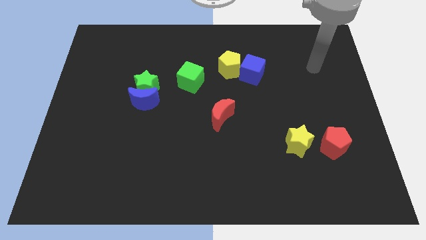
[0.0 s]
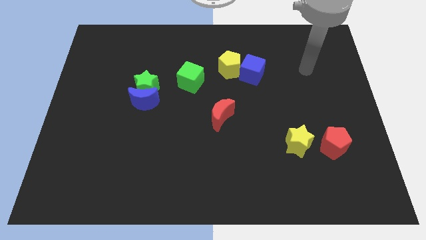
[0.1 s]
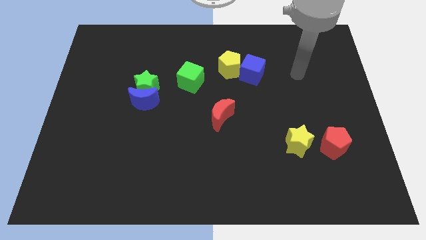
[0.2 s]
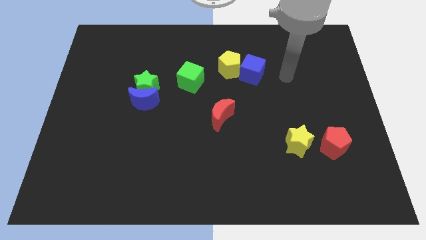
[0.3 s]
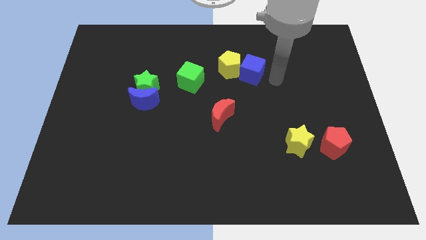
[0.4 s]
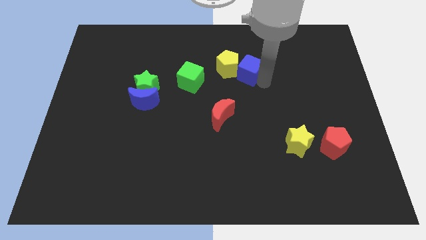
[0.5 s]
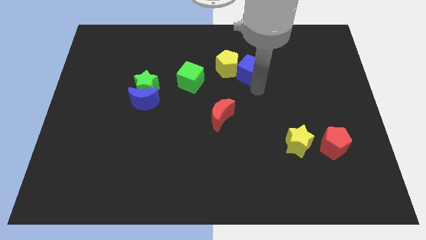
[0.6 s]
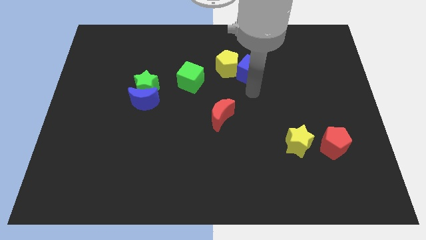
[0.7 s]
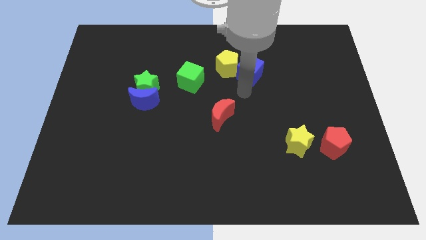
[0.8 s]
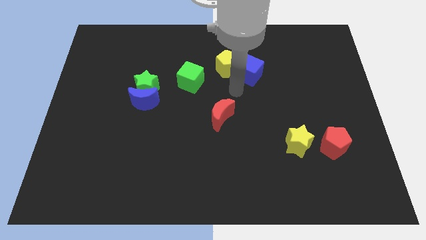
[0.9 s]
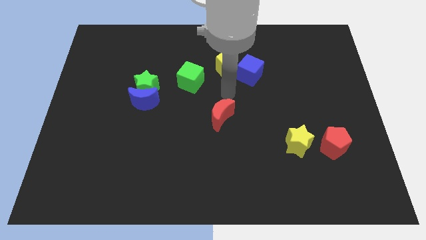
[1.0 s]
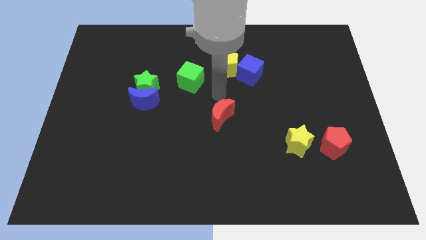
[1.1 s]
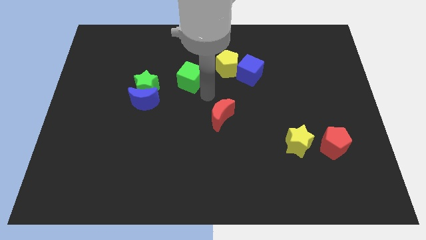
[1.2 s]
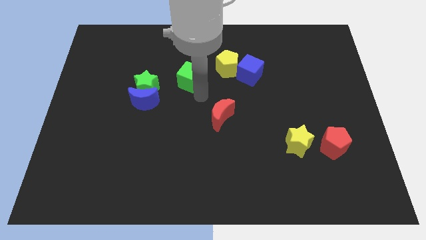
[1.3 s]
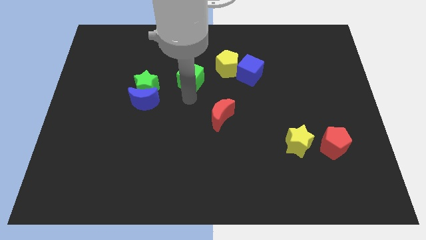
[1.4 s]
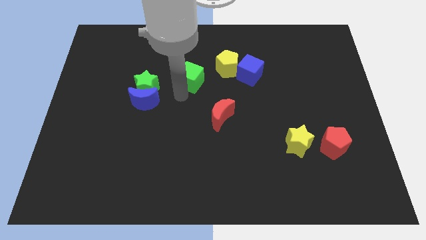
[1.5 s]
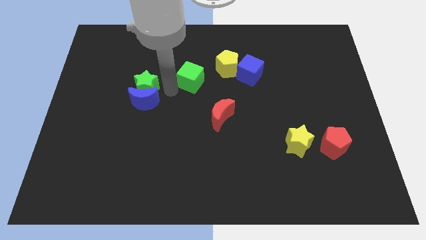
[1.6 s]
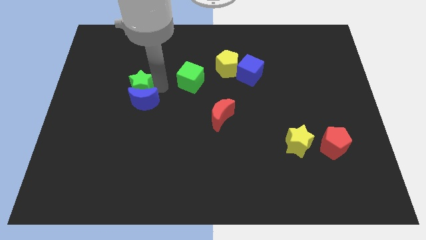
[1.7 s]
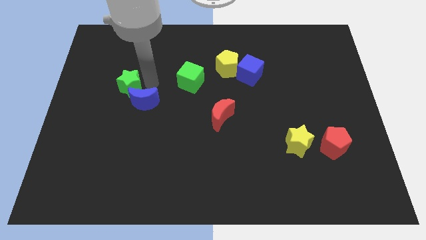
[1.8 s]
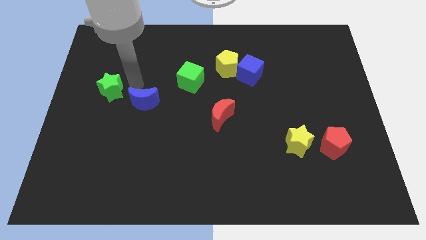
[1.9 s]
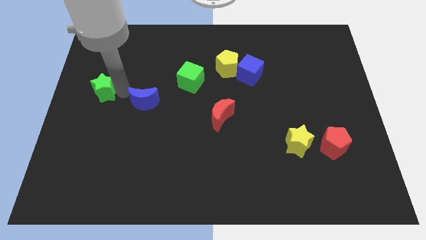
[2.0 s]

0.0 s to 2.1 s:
pull the blue moon apart from the green star

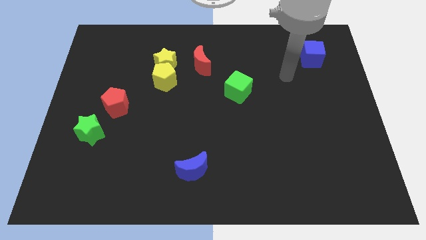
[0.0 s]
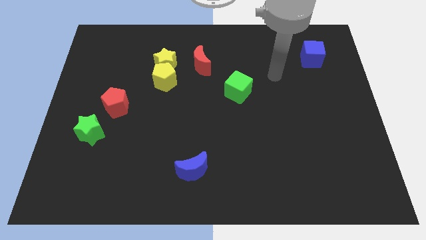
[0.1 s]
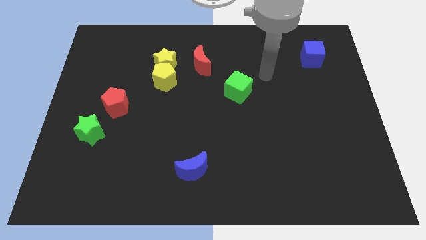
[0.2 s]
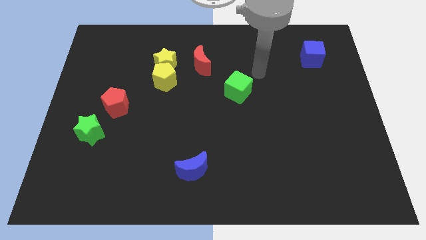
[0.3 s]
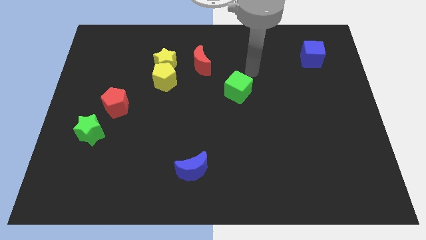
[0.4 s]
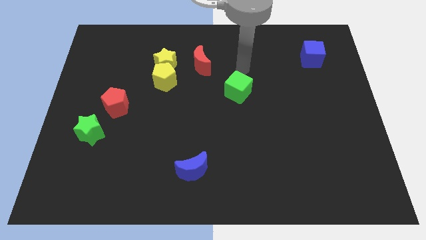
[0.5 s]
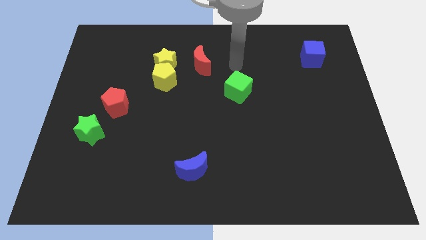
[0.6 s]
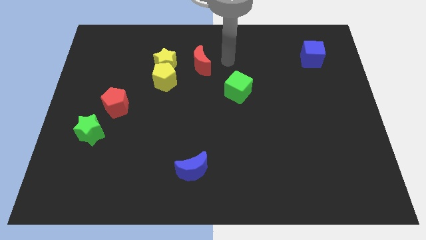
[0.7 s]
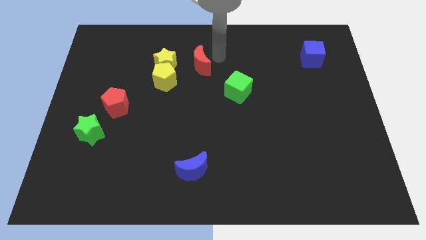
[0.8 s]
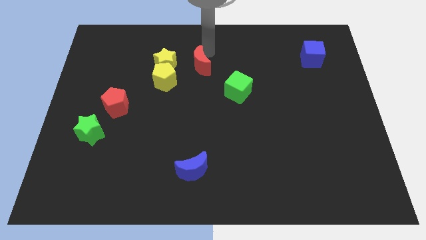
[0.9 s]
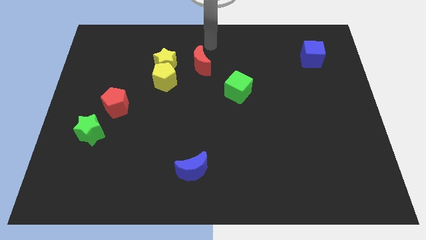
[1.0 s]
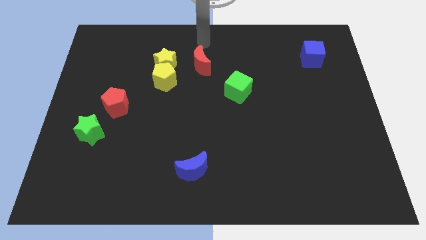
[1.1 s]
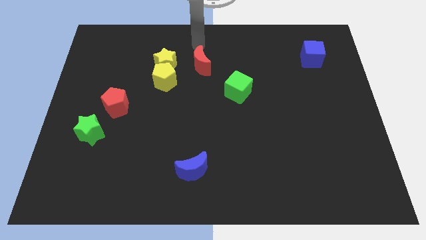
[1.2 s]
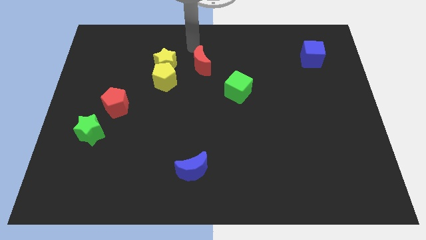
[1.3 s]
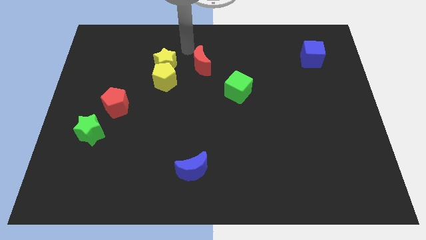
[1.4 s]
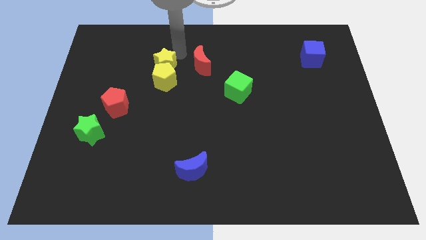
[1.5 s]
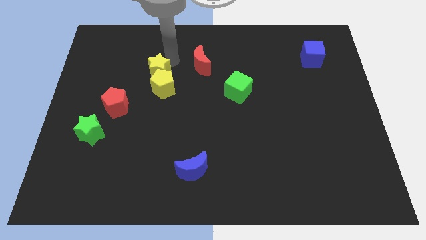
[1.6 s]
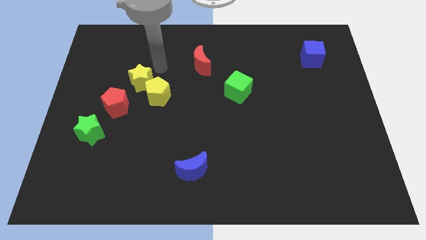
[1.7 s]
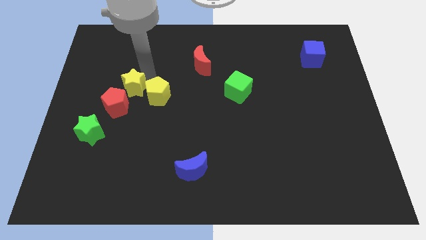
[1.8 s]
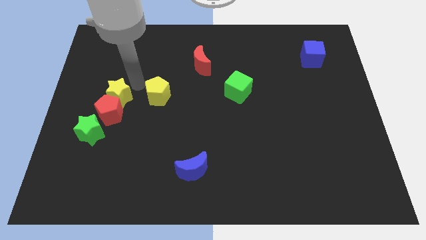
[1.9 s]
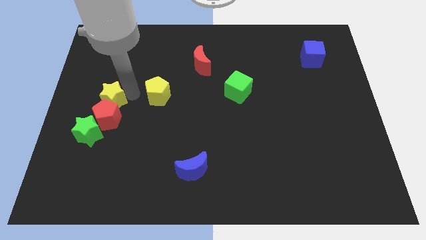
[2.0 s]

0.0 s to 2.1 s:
move the yellow pentagon away from the yellow star

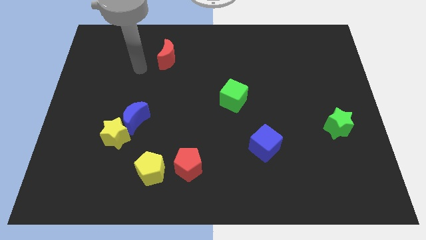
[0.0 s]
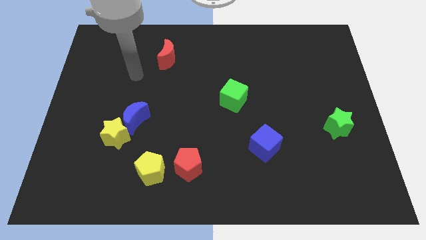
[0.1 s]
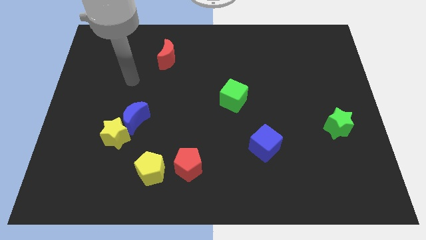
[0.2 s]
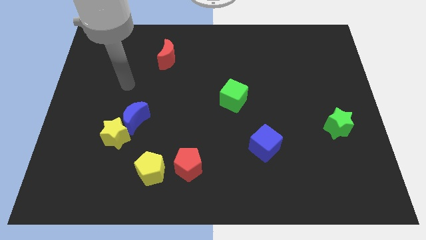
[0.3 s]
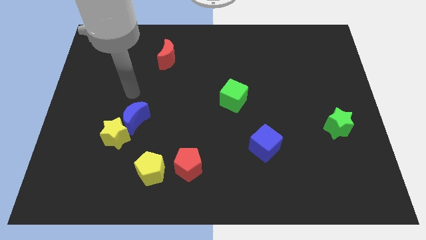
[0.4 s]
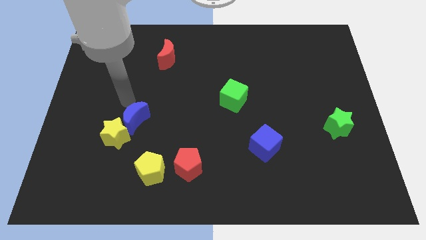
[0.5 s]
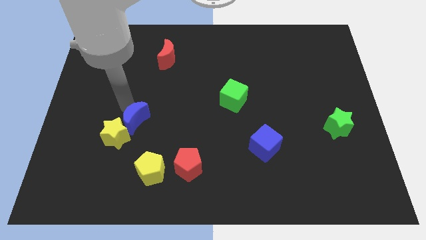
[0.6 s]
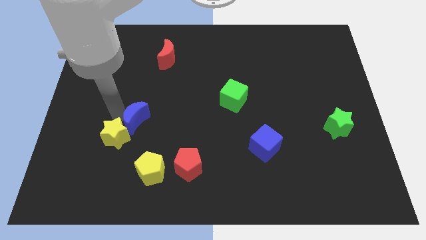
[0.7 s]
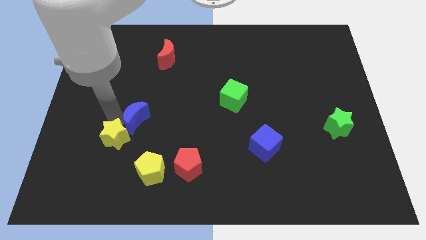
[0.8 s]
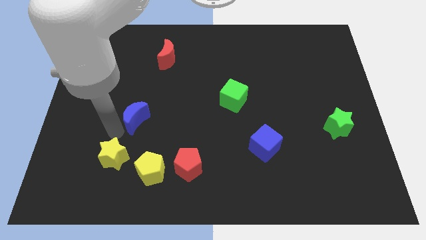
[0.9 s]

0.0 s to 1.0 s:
separate the blue moon from the yellow star

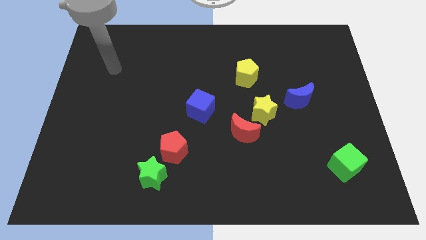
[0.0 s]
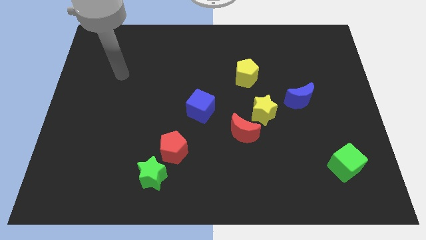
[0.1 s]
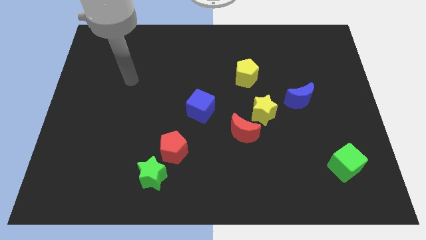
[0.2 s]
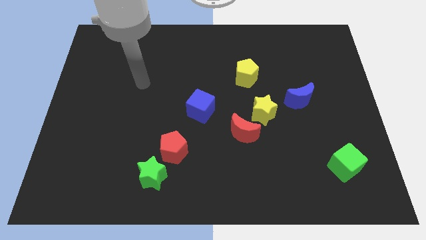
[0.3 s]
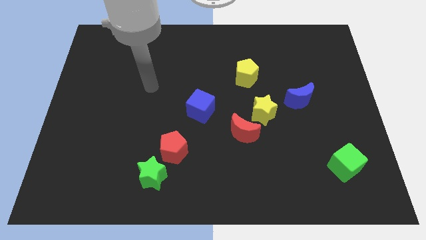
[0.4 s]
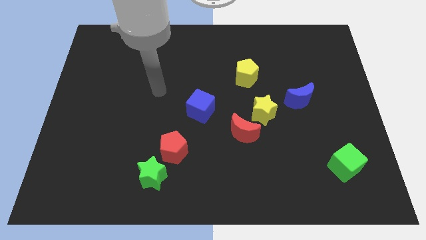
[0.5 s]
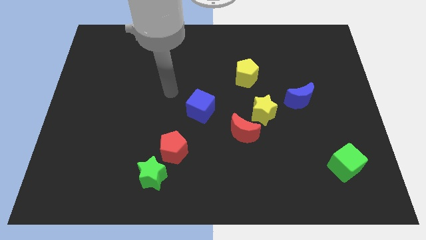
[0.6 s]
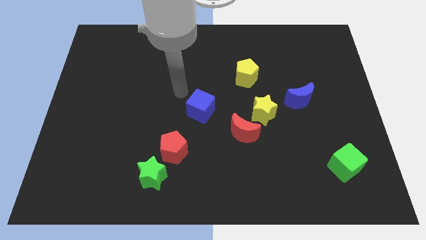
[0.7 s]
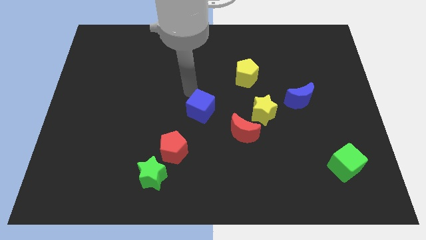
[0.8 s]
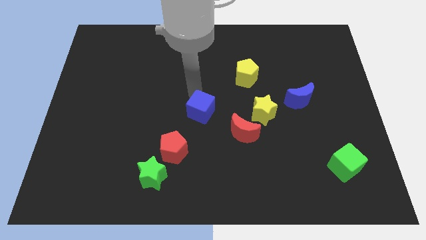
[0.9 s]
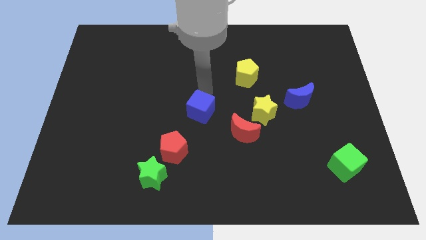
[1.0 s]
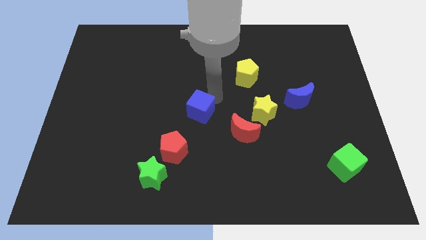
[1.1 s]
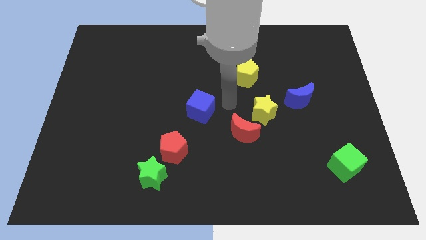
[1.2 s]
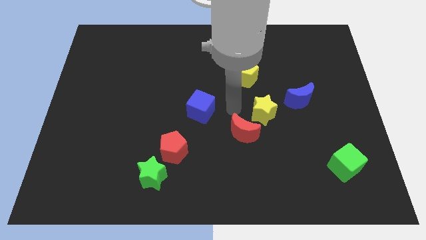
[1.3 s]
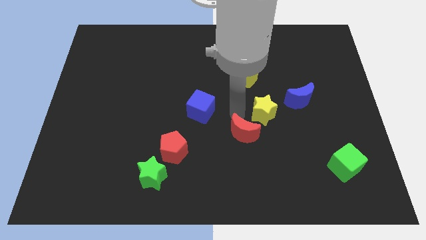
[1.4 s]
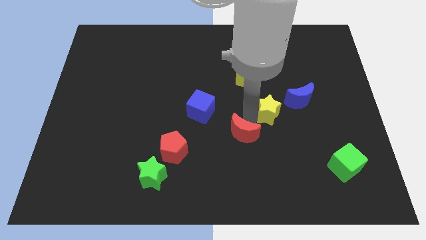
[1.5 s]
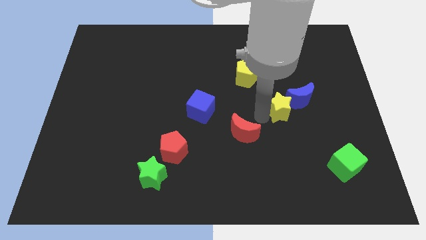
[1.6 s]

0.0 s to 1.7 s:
separate the red moon from the yellow star

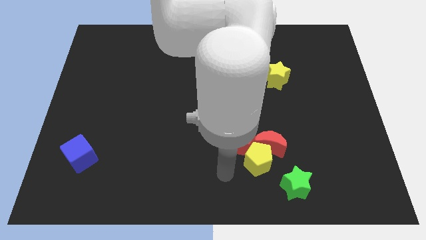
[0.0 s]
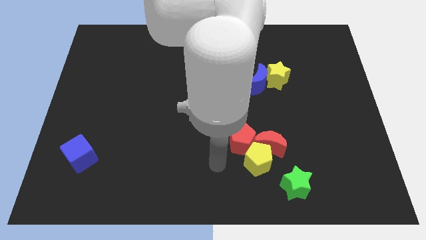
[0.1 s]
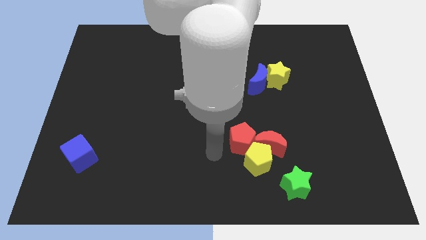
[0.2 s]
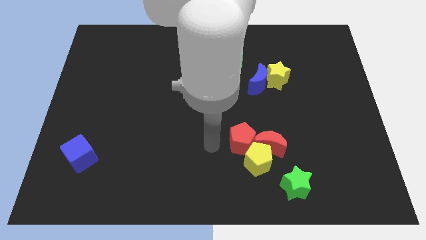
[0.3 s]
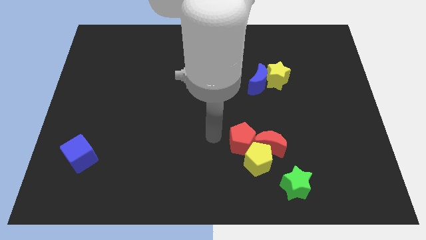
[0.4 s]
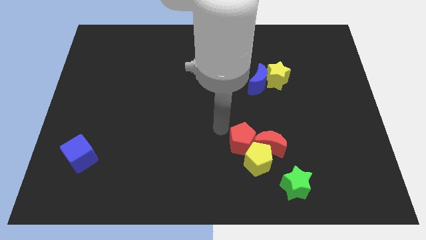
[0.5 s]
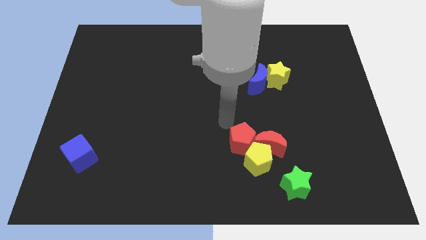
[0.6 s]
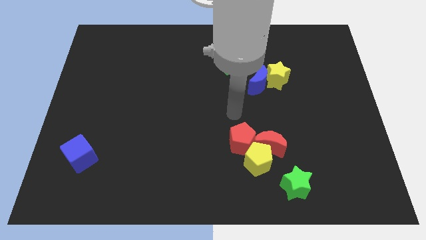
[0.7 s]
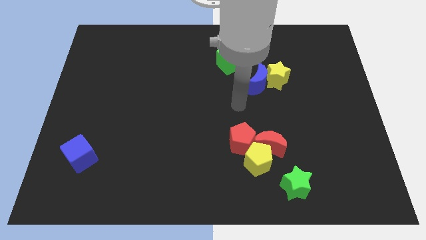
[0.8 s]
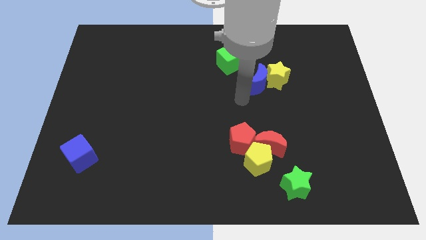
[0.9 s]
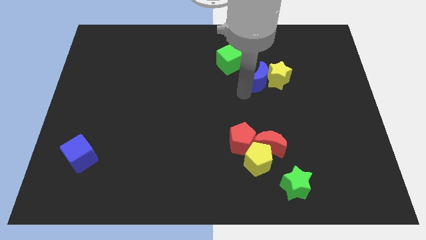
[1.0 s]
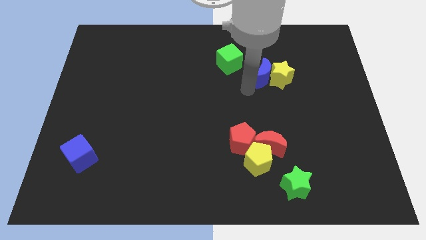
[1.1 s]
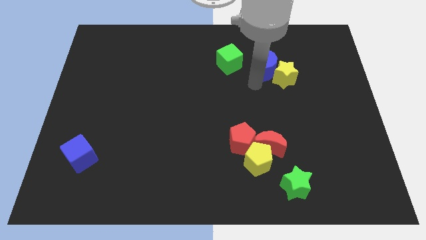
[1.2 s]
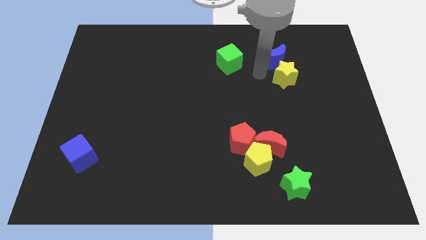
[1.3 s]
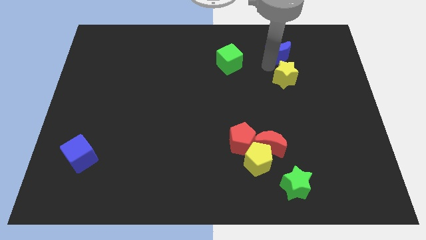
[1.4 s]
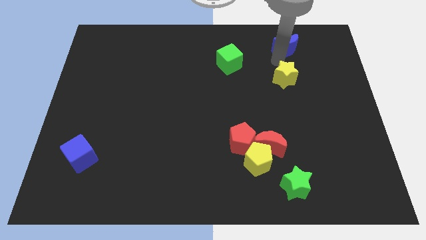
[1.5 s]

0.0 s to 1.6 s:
separate the yellow star from the blue moon

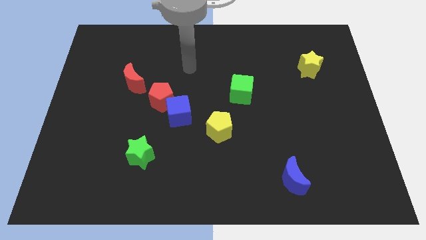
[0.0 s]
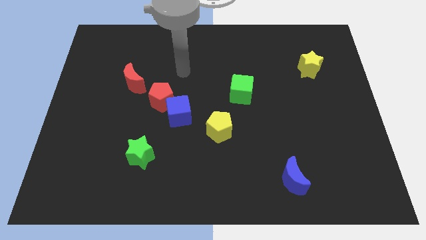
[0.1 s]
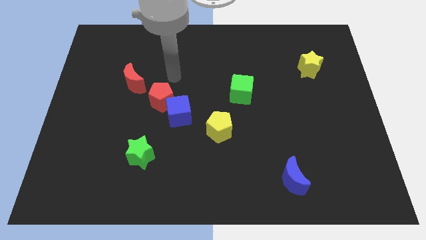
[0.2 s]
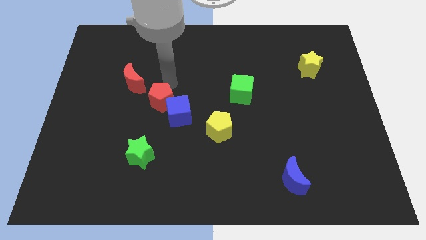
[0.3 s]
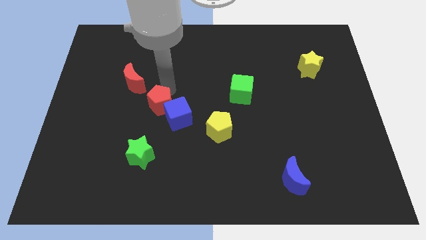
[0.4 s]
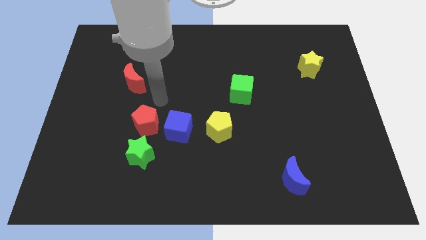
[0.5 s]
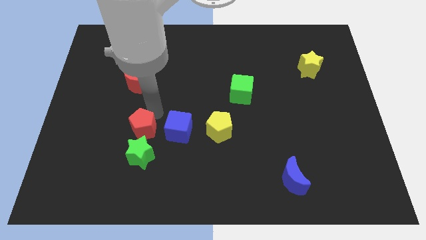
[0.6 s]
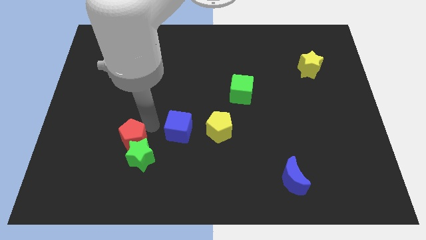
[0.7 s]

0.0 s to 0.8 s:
pull the blue cube apart from the red pentagon

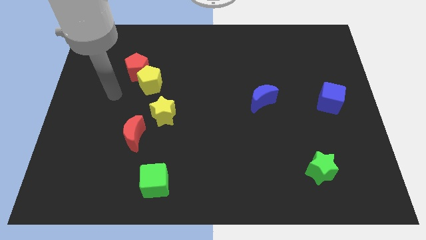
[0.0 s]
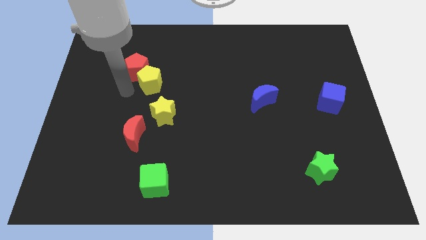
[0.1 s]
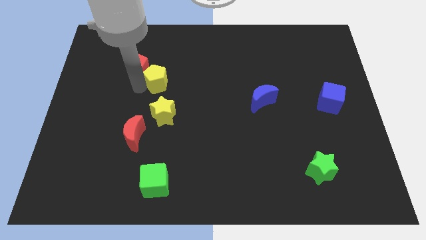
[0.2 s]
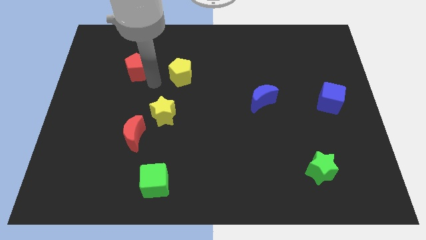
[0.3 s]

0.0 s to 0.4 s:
pull the red pentagon apart from the yellow pentagon
